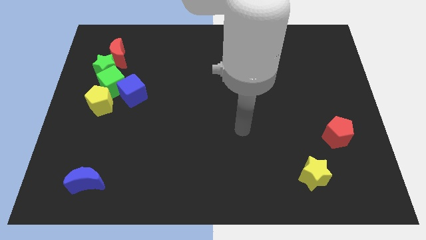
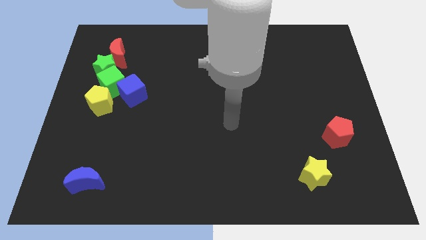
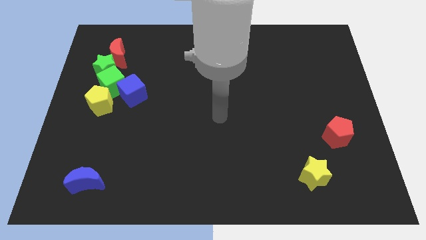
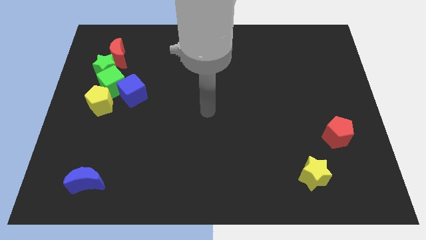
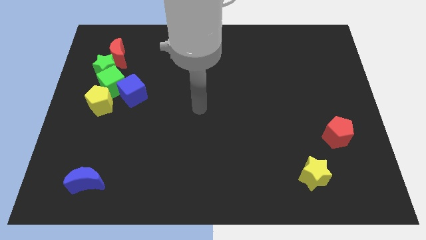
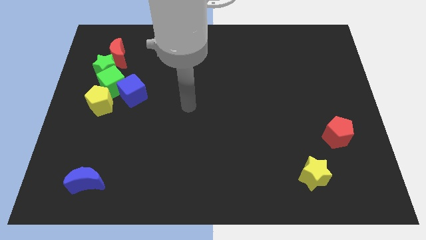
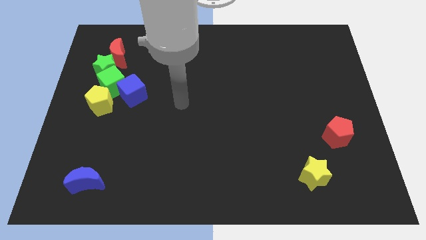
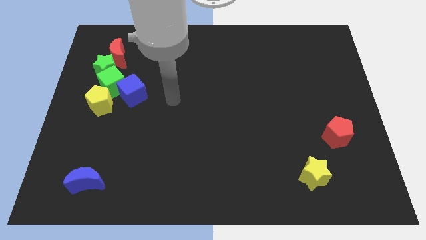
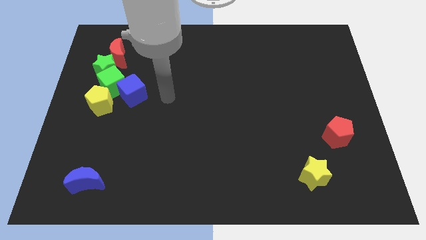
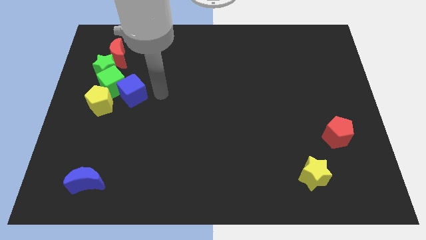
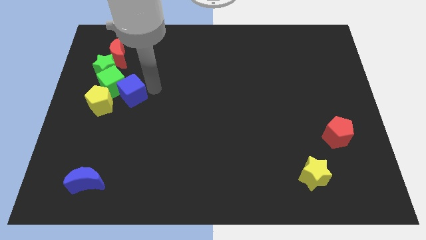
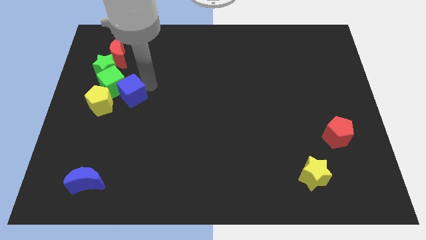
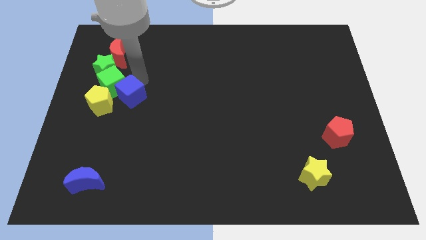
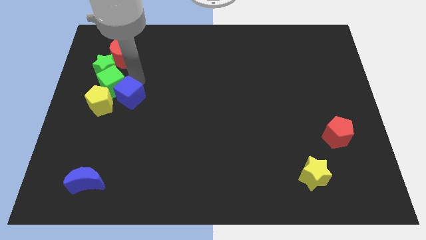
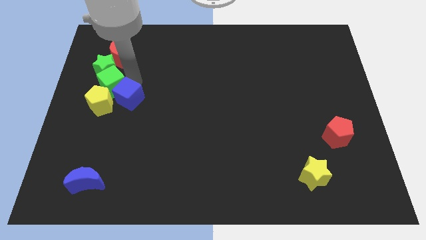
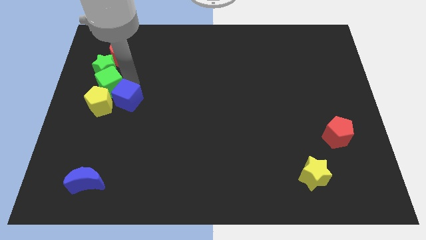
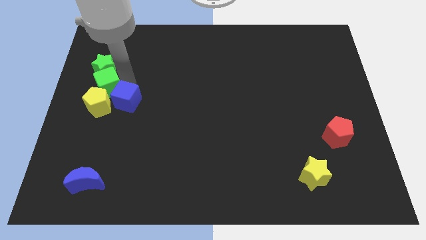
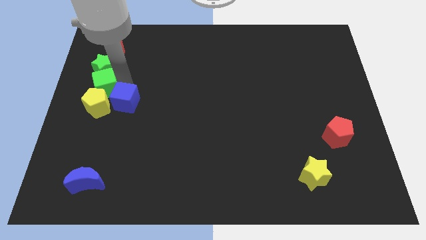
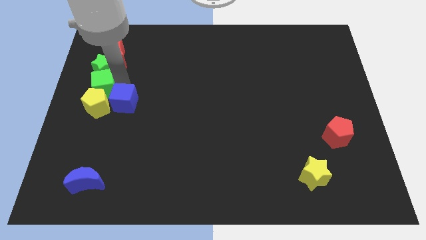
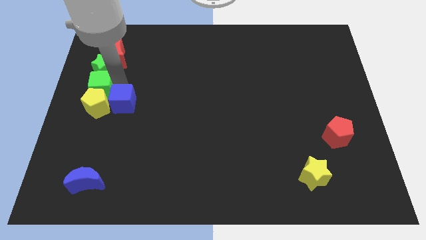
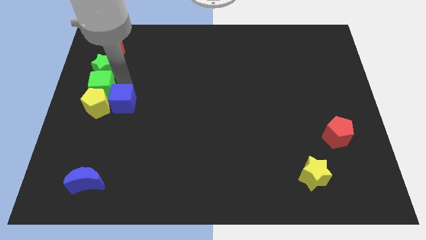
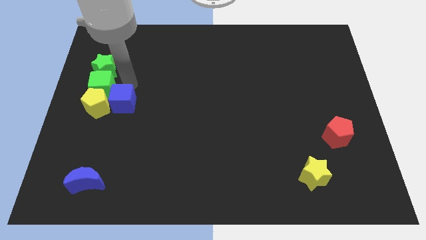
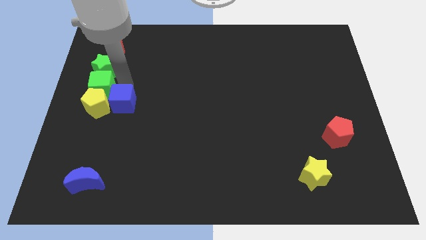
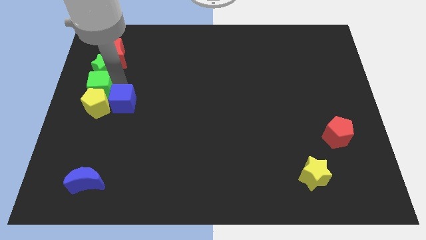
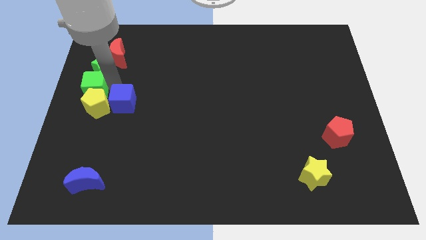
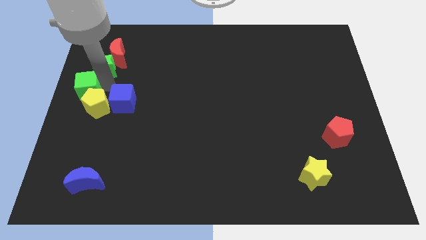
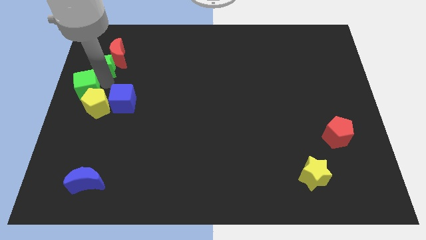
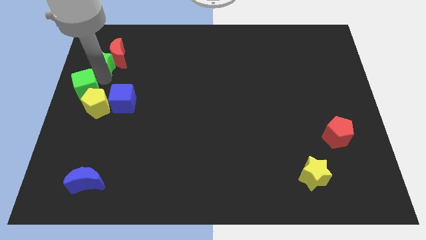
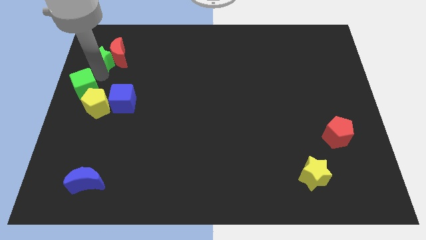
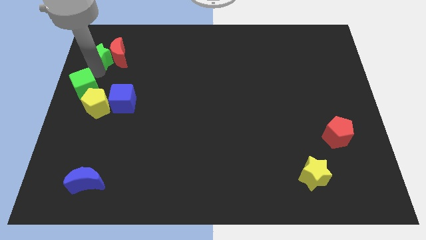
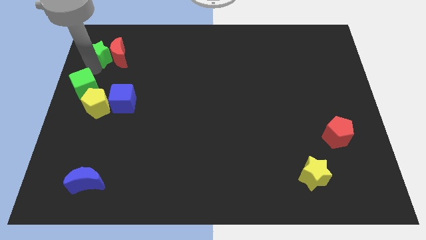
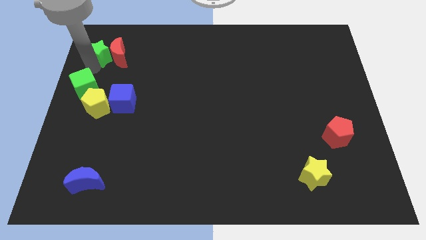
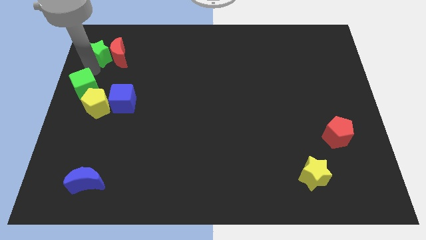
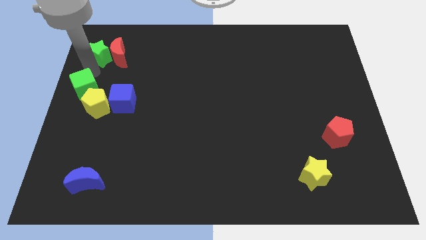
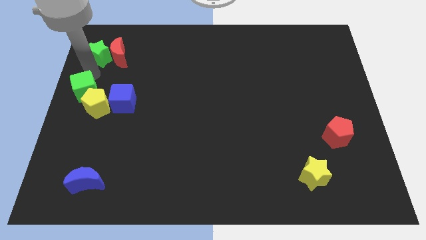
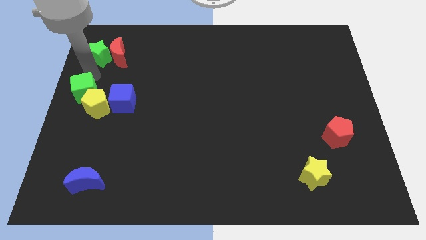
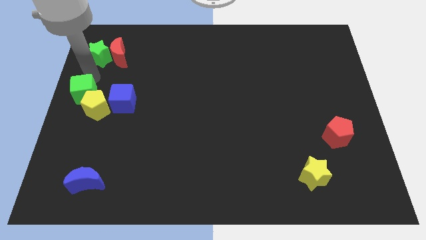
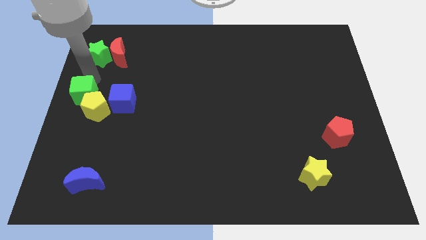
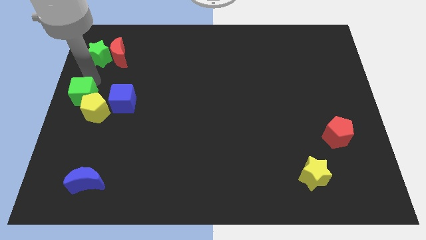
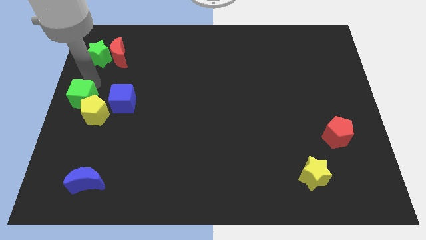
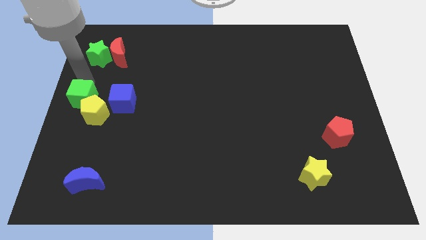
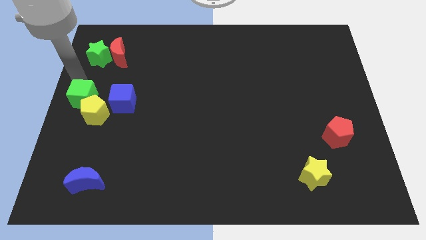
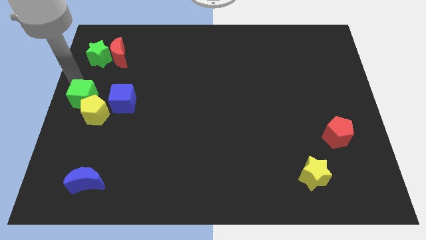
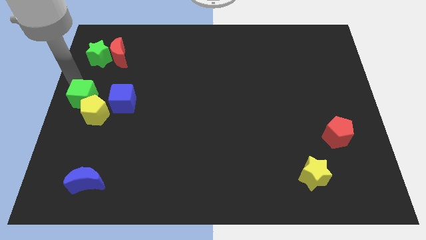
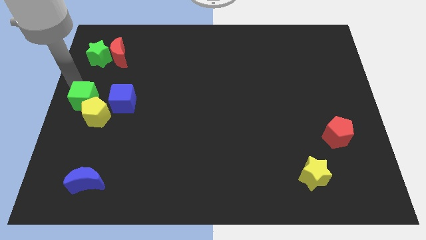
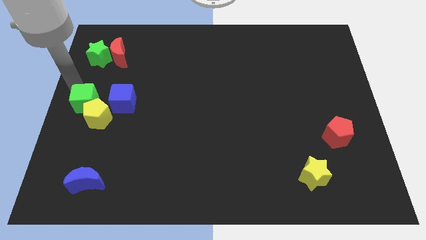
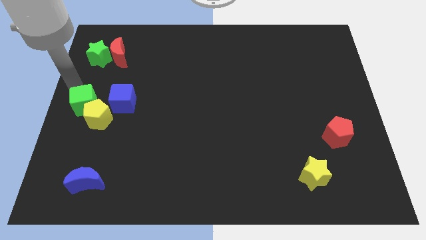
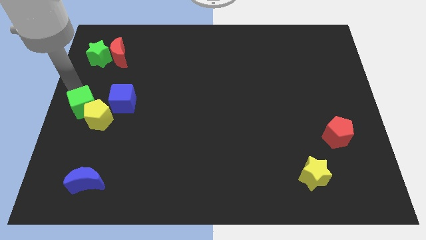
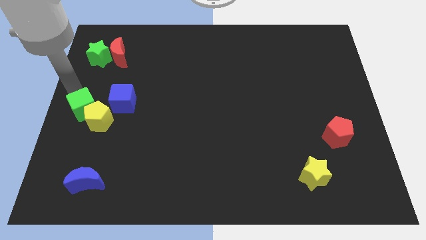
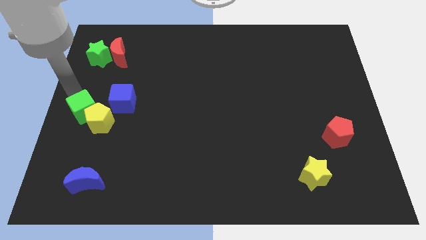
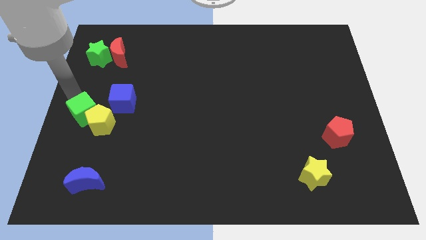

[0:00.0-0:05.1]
push the green cube a little downwards

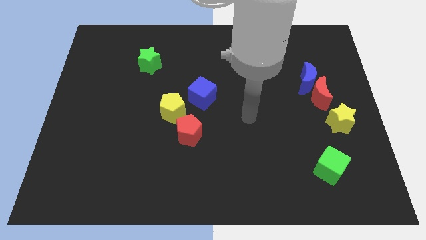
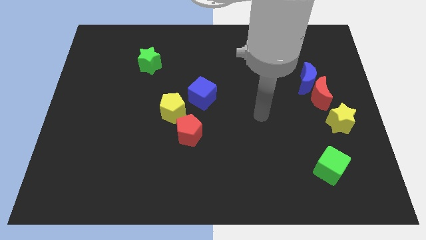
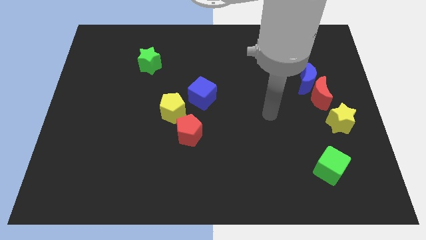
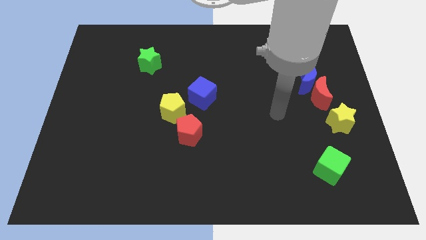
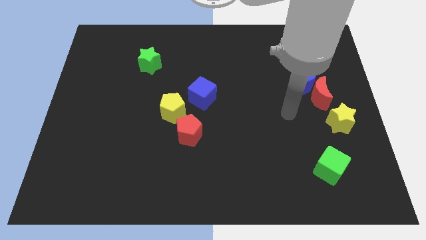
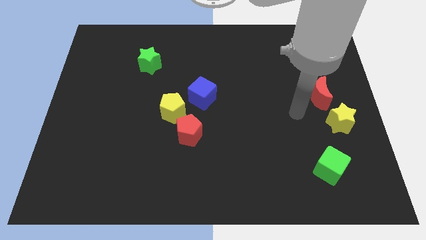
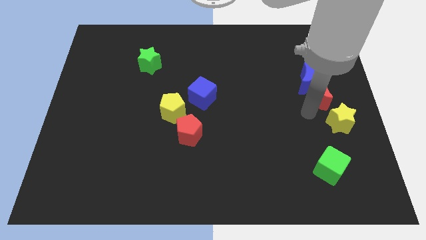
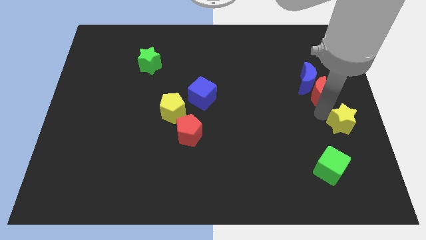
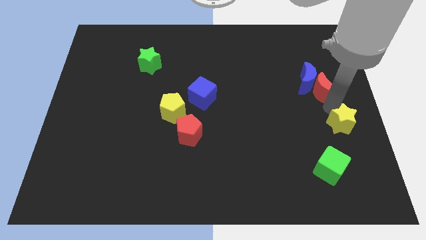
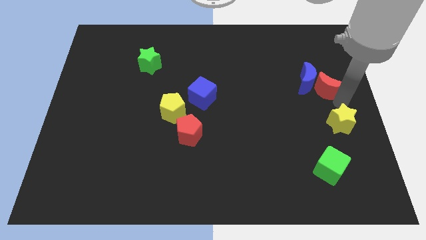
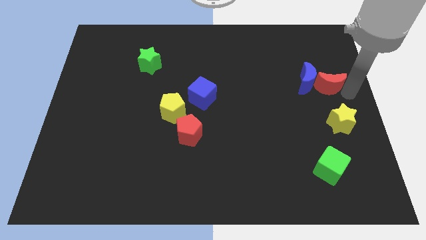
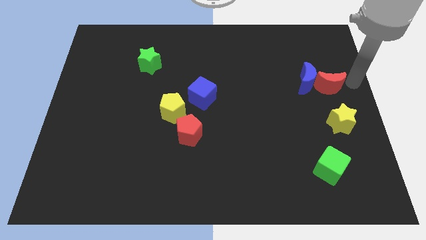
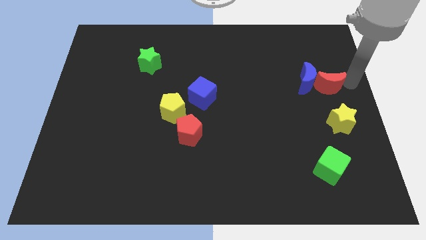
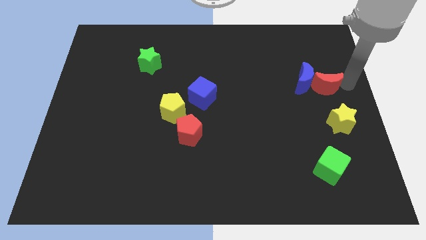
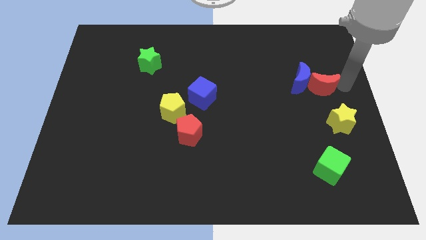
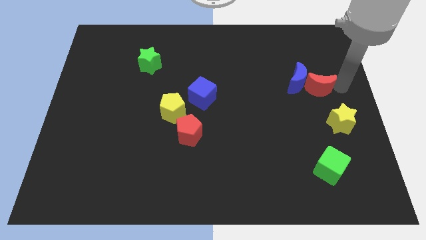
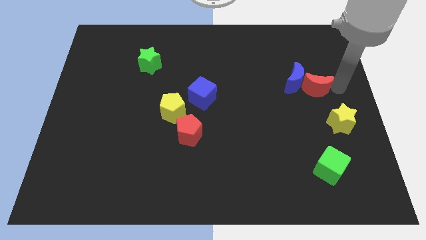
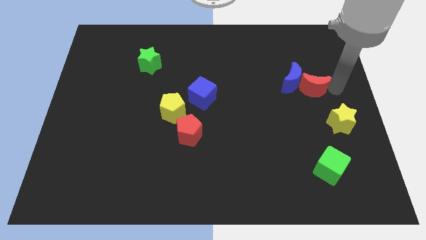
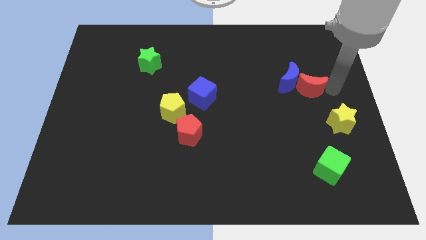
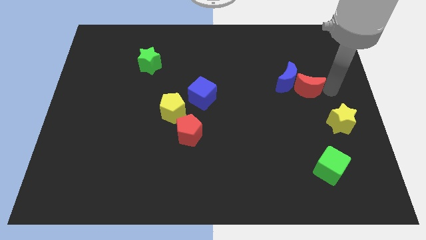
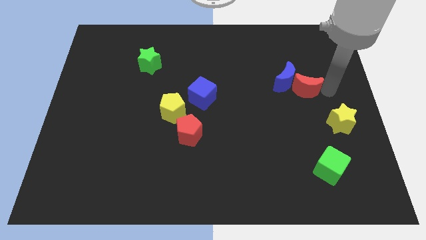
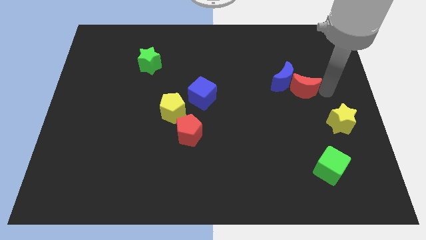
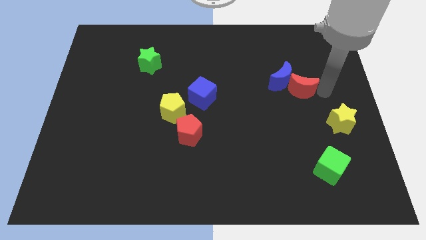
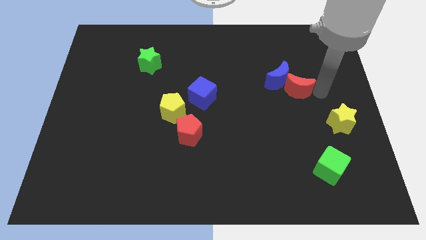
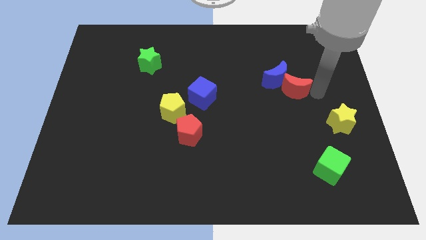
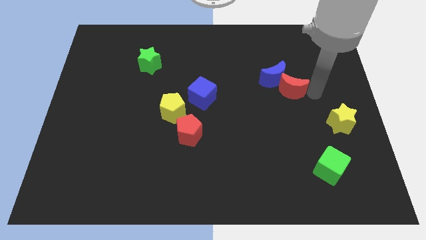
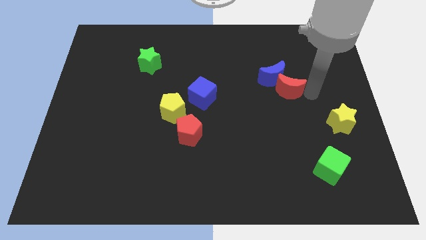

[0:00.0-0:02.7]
slightly move the red moon to the left
